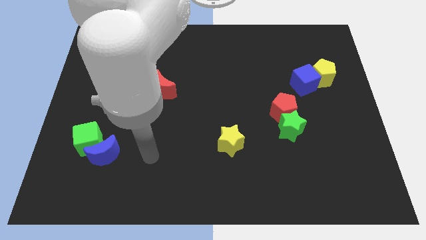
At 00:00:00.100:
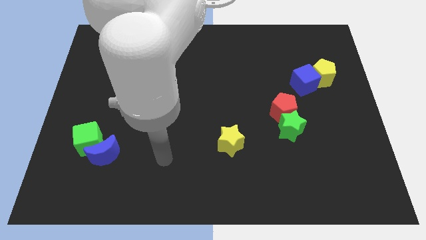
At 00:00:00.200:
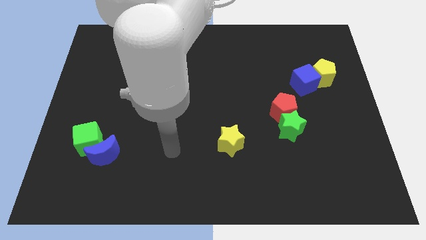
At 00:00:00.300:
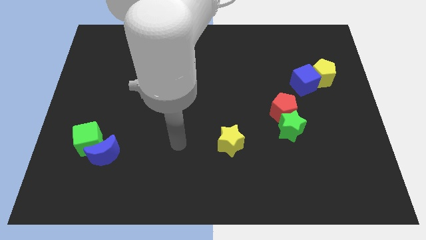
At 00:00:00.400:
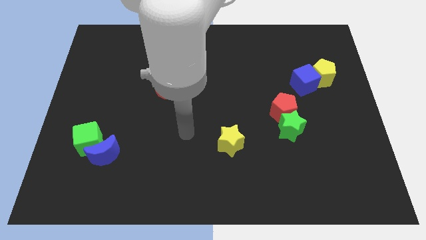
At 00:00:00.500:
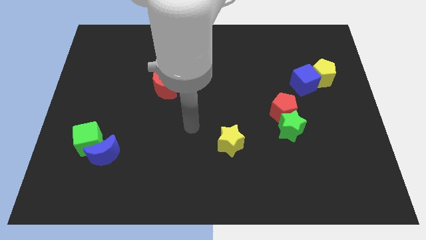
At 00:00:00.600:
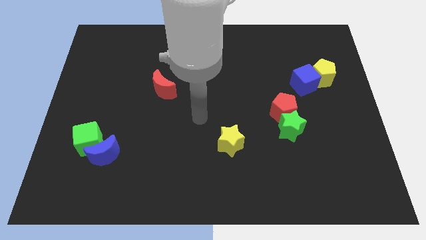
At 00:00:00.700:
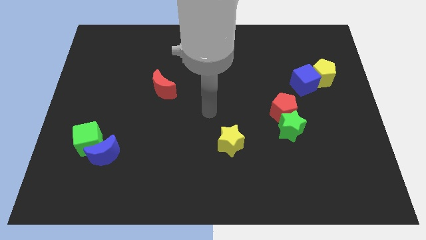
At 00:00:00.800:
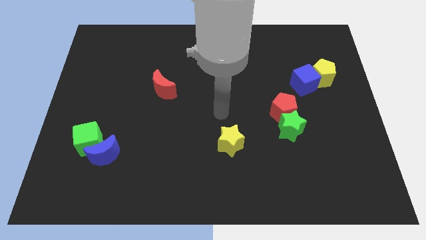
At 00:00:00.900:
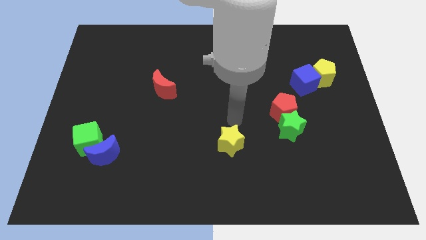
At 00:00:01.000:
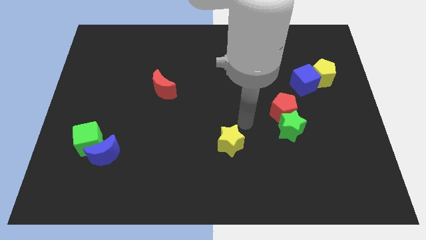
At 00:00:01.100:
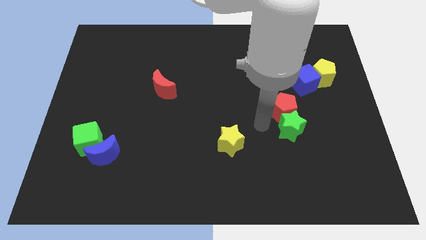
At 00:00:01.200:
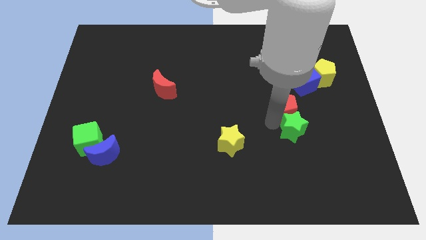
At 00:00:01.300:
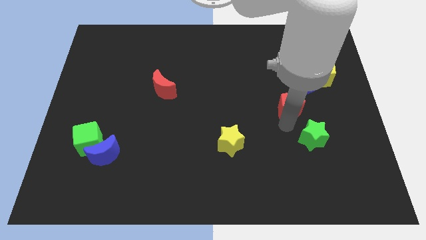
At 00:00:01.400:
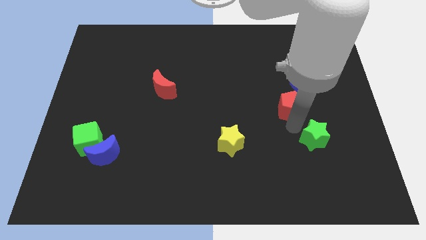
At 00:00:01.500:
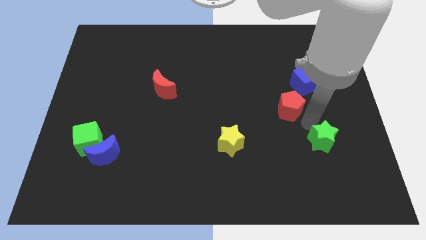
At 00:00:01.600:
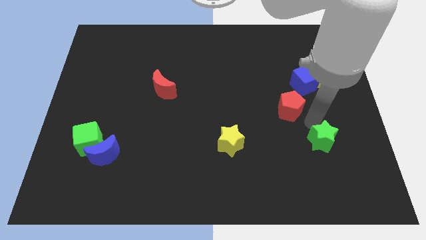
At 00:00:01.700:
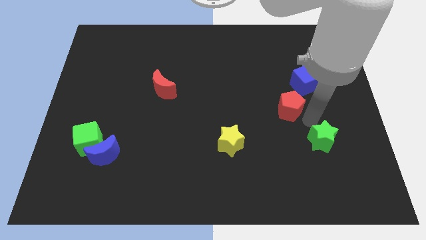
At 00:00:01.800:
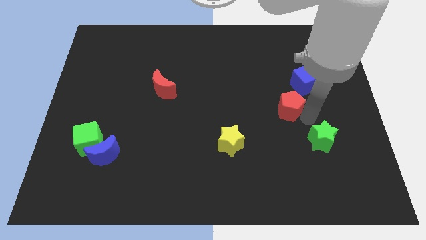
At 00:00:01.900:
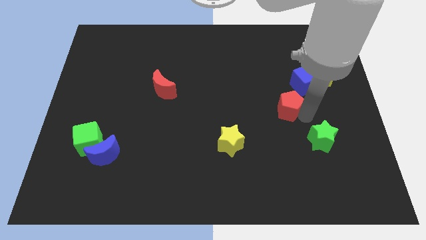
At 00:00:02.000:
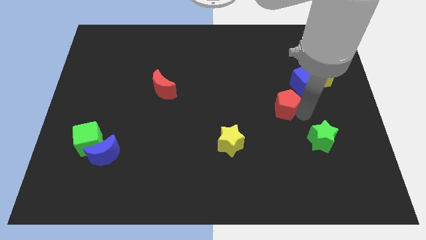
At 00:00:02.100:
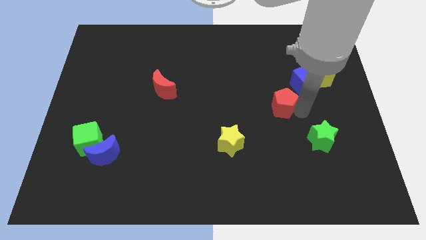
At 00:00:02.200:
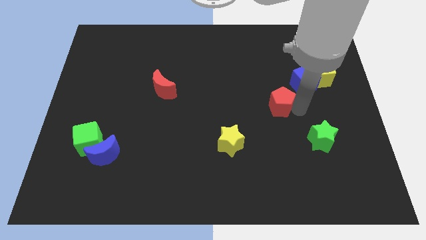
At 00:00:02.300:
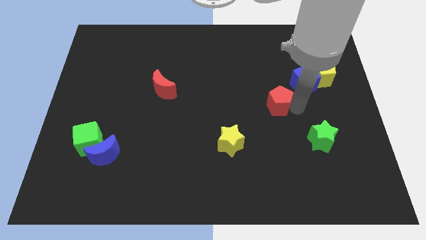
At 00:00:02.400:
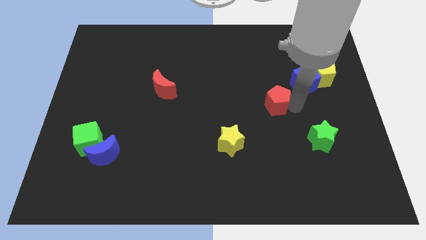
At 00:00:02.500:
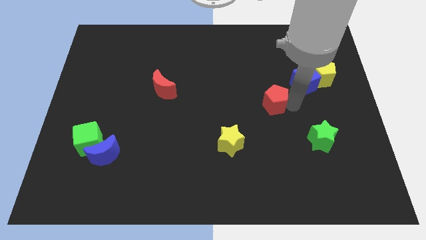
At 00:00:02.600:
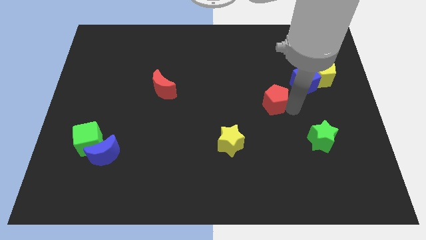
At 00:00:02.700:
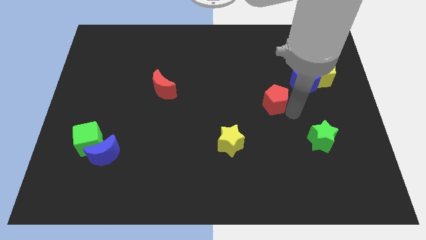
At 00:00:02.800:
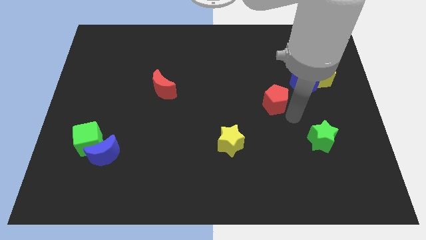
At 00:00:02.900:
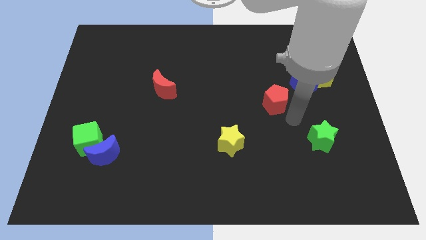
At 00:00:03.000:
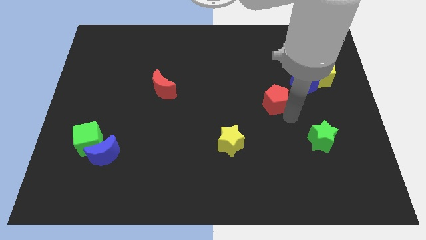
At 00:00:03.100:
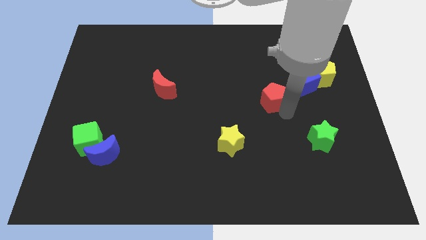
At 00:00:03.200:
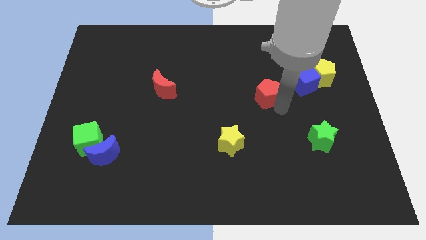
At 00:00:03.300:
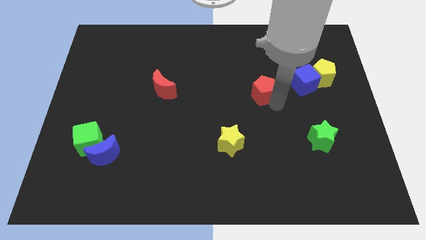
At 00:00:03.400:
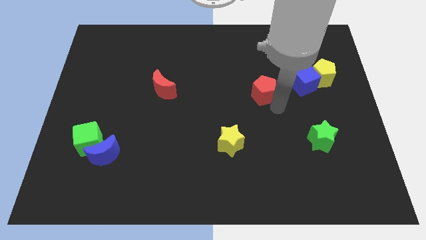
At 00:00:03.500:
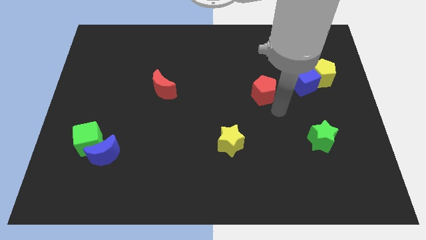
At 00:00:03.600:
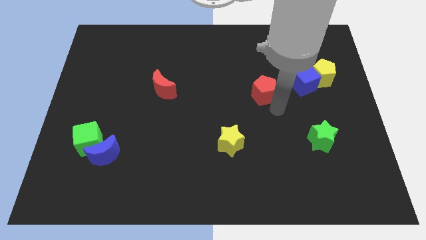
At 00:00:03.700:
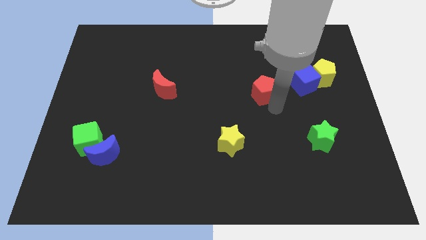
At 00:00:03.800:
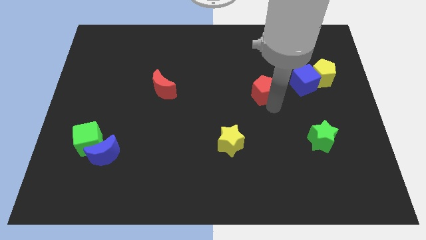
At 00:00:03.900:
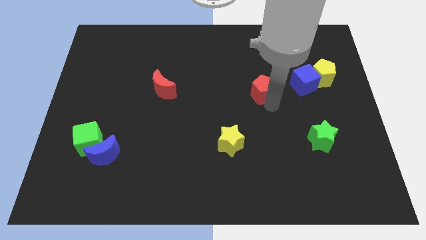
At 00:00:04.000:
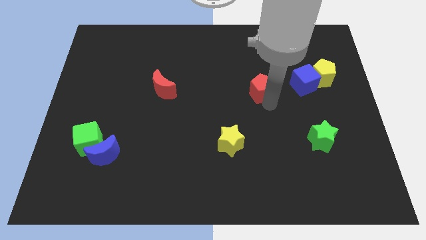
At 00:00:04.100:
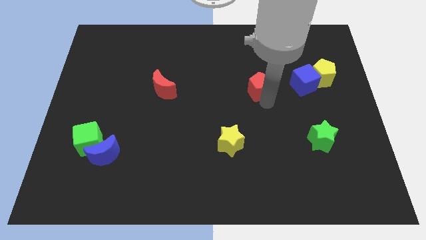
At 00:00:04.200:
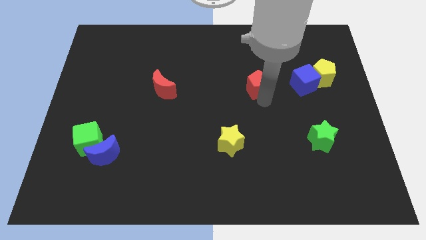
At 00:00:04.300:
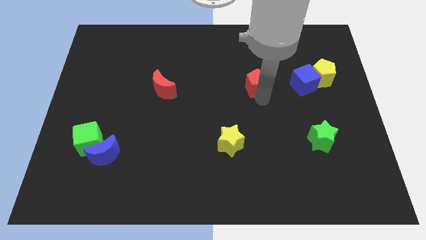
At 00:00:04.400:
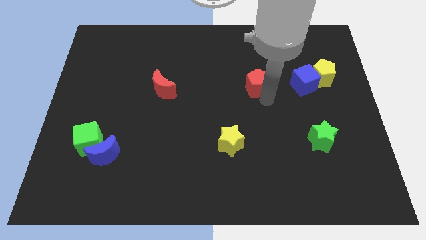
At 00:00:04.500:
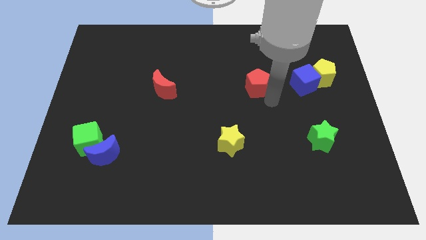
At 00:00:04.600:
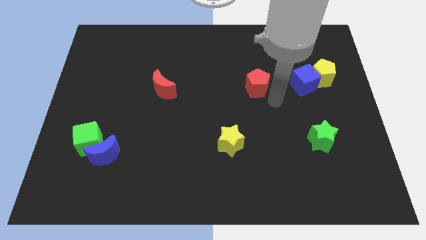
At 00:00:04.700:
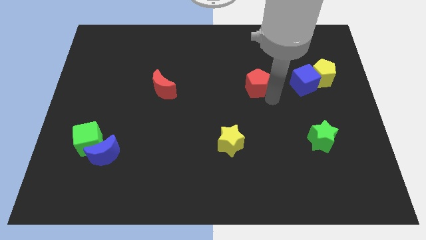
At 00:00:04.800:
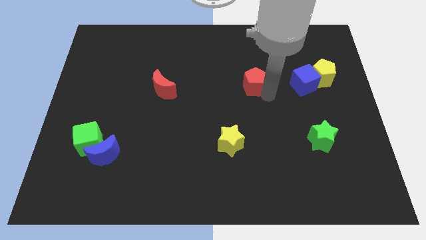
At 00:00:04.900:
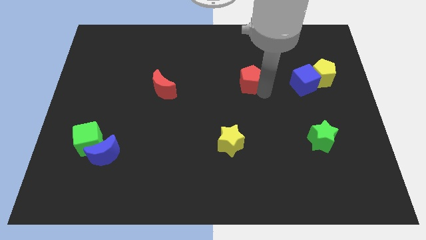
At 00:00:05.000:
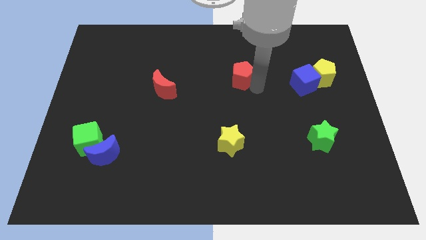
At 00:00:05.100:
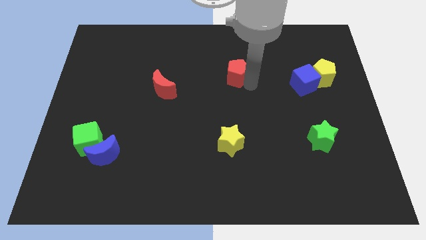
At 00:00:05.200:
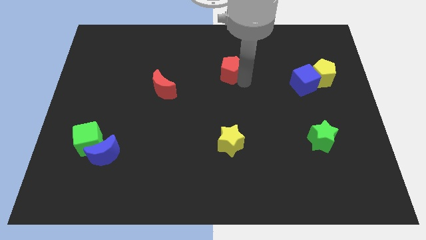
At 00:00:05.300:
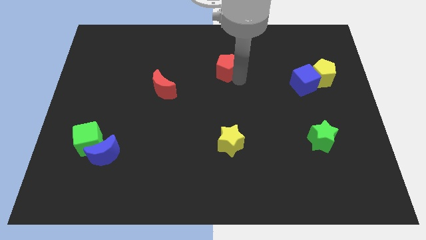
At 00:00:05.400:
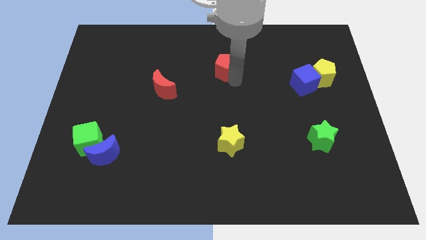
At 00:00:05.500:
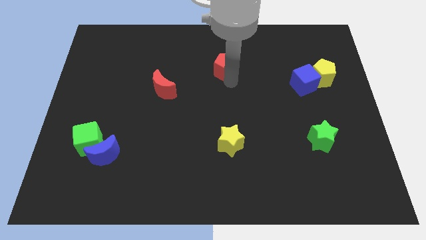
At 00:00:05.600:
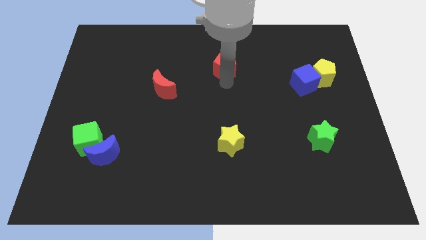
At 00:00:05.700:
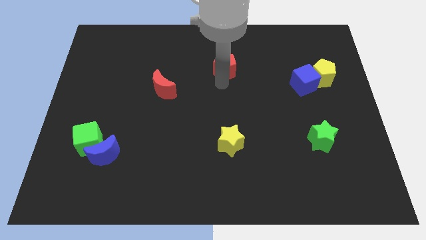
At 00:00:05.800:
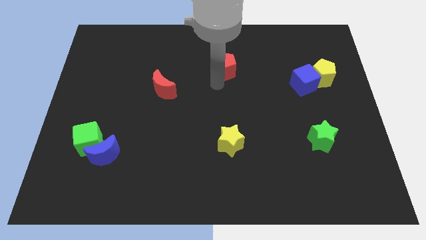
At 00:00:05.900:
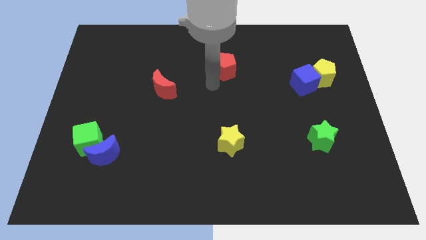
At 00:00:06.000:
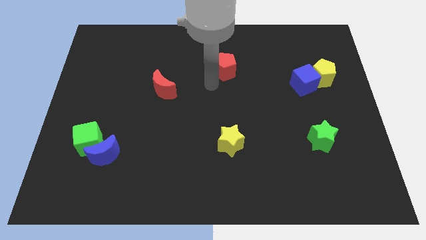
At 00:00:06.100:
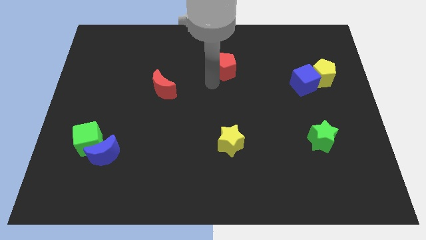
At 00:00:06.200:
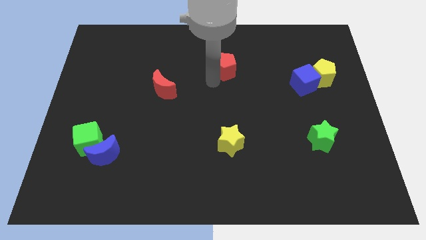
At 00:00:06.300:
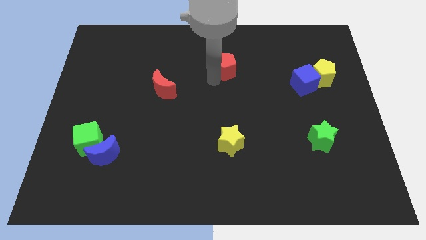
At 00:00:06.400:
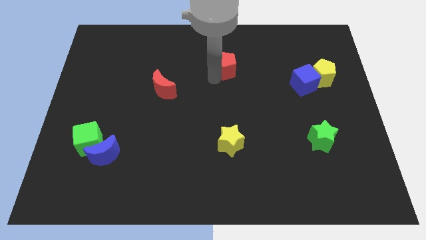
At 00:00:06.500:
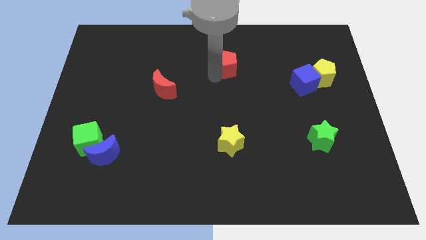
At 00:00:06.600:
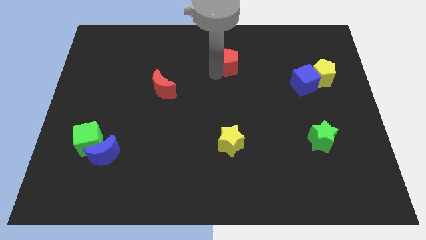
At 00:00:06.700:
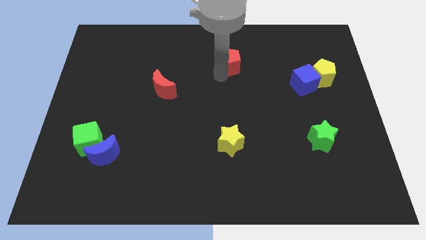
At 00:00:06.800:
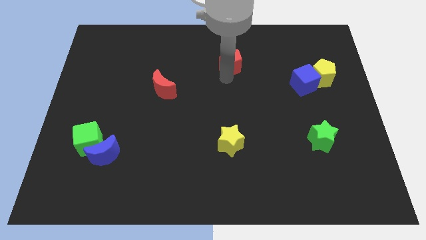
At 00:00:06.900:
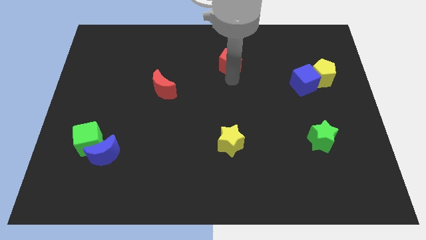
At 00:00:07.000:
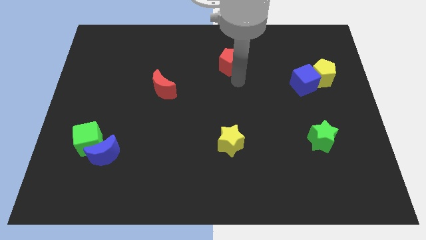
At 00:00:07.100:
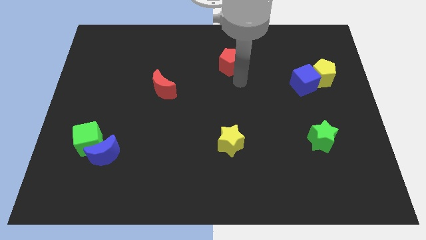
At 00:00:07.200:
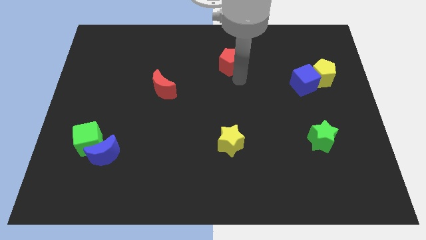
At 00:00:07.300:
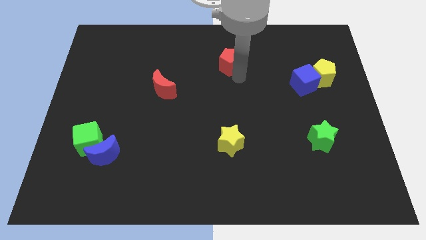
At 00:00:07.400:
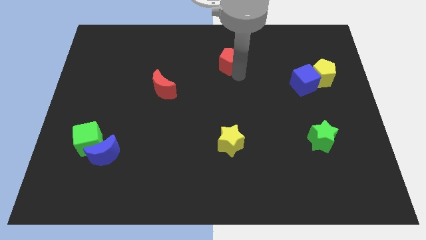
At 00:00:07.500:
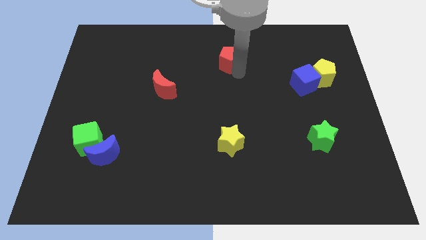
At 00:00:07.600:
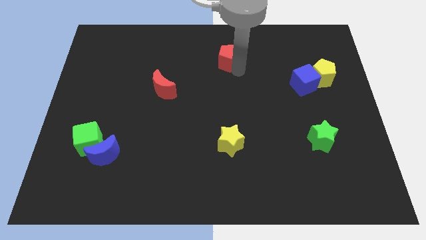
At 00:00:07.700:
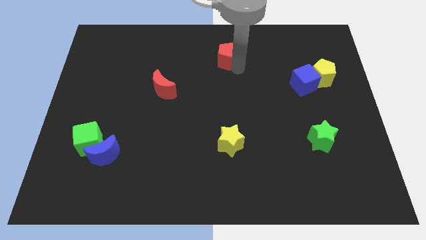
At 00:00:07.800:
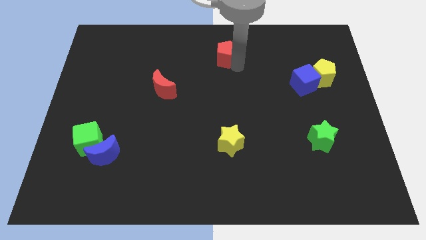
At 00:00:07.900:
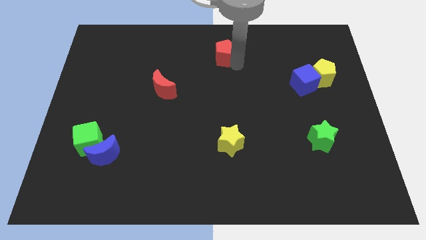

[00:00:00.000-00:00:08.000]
push the red pentagon to the top side
